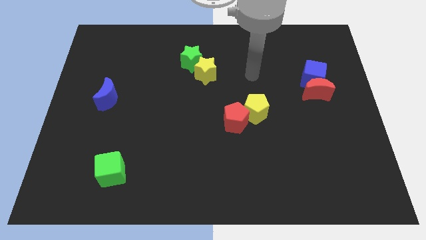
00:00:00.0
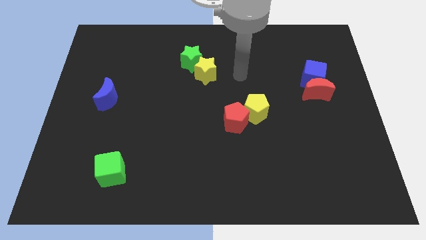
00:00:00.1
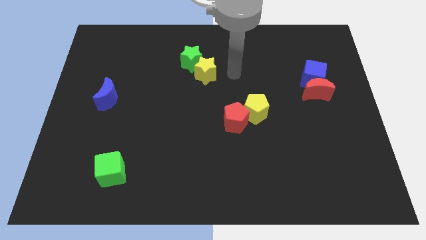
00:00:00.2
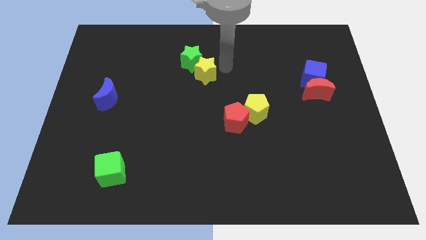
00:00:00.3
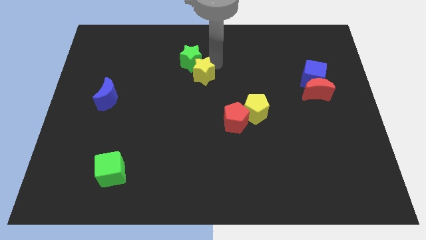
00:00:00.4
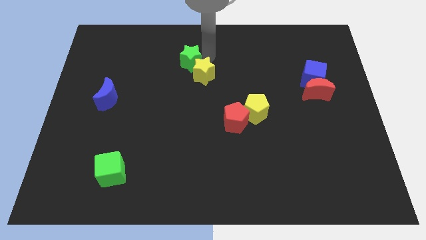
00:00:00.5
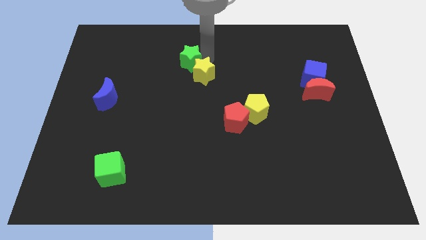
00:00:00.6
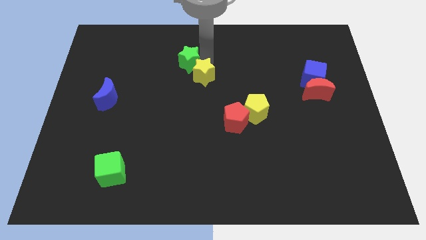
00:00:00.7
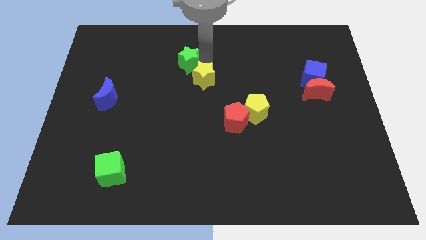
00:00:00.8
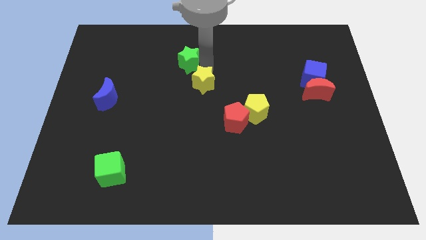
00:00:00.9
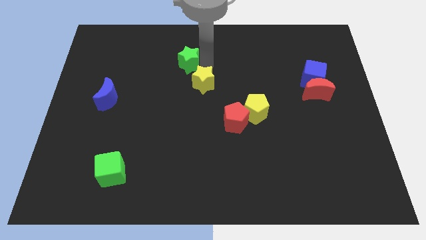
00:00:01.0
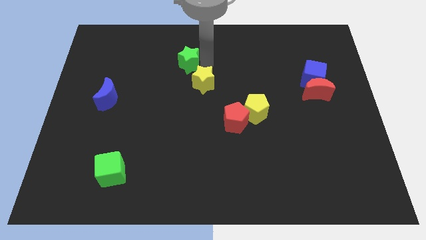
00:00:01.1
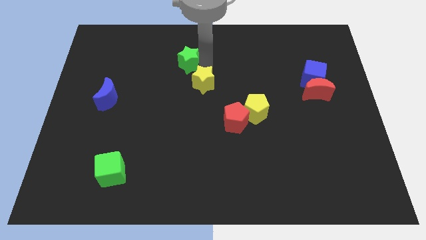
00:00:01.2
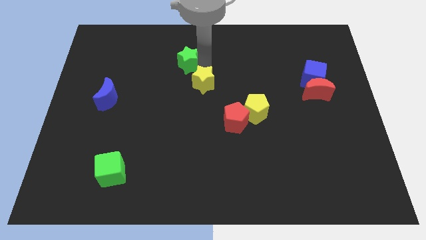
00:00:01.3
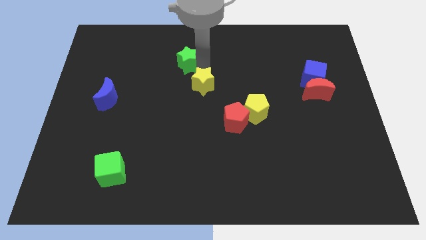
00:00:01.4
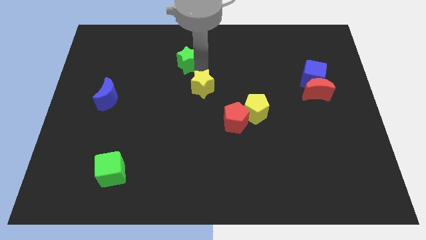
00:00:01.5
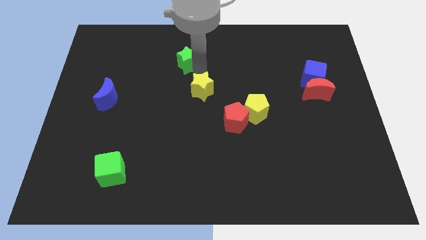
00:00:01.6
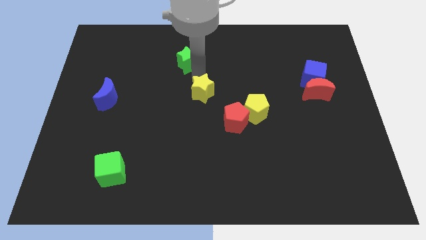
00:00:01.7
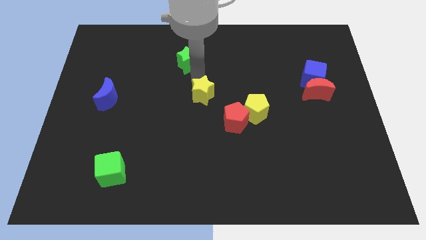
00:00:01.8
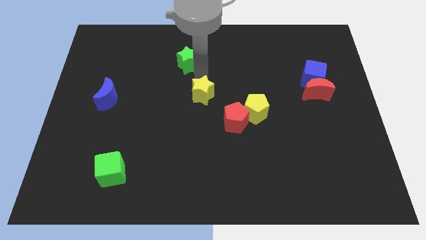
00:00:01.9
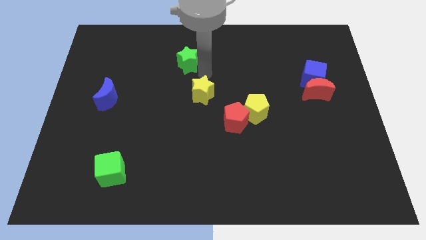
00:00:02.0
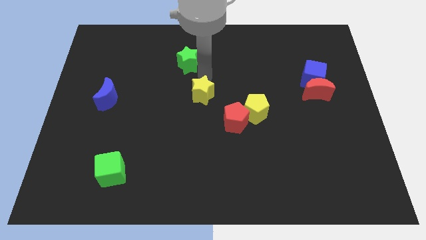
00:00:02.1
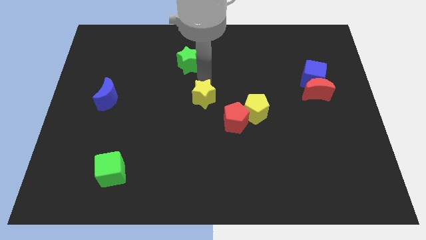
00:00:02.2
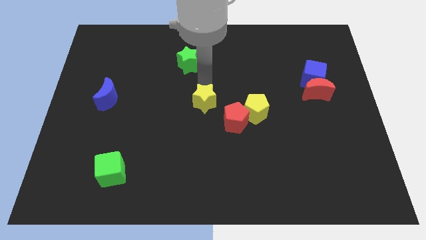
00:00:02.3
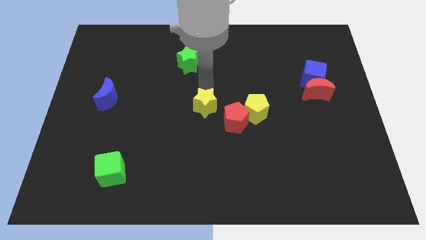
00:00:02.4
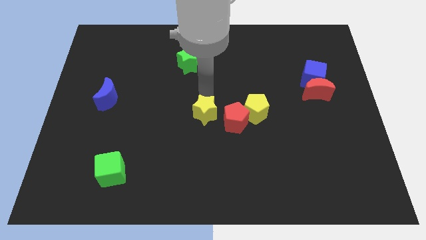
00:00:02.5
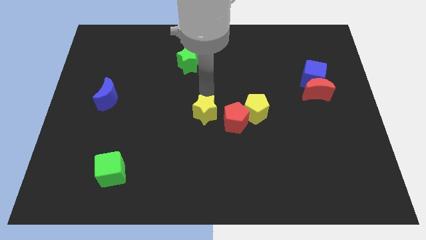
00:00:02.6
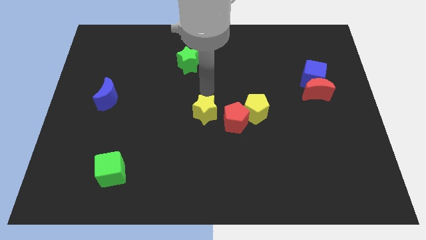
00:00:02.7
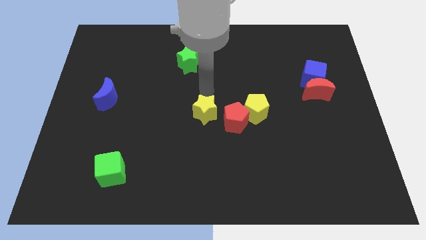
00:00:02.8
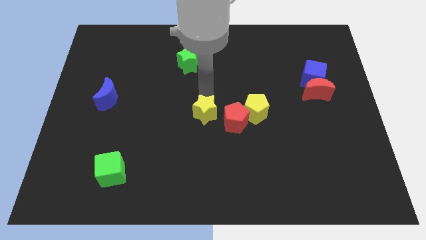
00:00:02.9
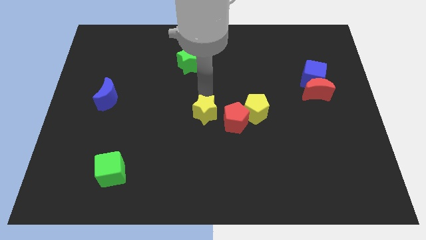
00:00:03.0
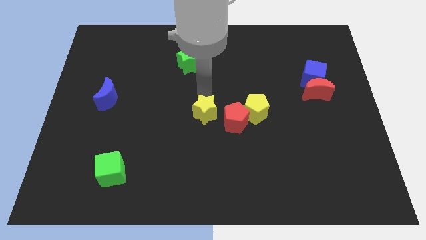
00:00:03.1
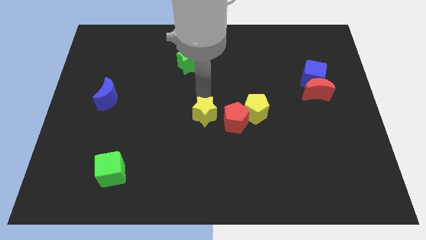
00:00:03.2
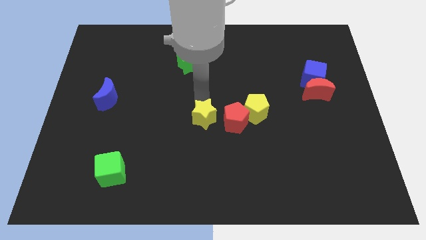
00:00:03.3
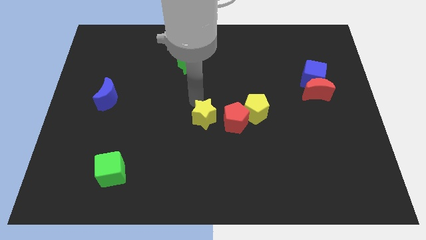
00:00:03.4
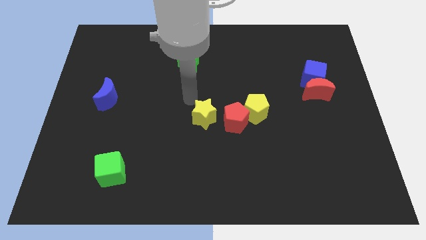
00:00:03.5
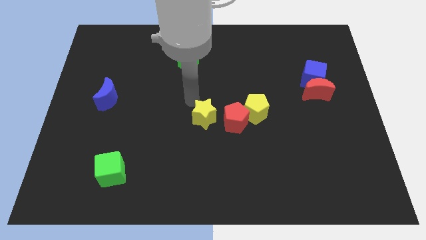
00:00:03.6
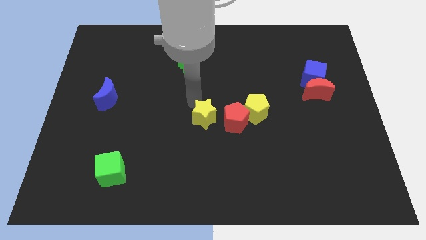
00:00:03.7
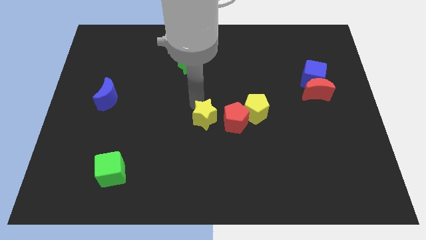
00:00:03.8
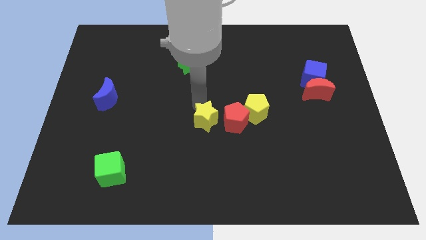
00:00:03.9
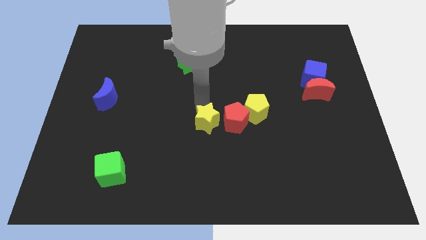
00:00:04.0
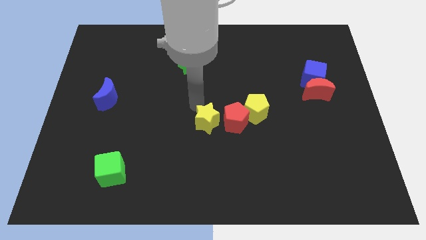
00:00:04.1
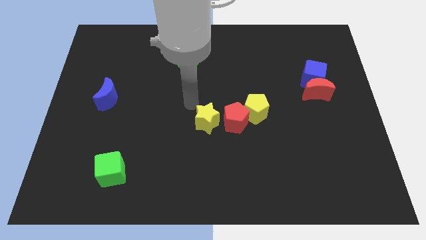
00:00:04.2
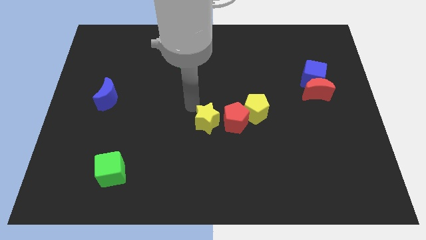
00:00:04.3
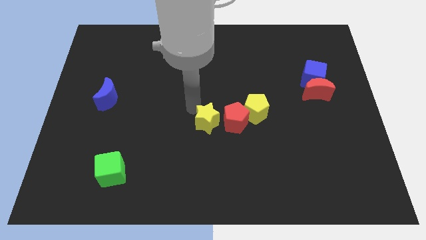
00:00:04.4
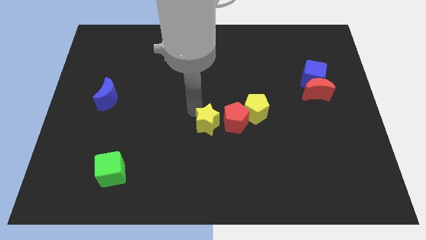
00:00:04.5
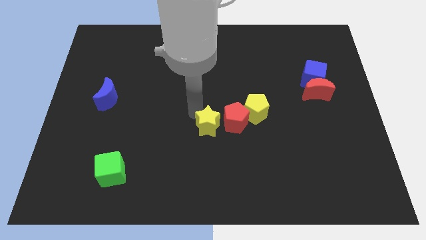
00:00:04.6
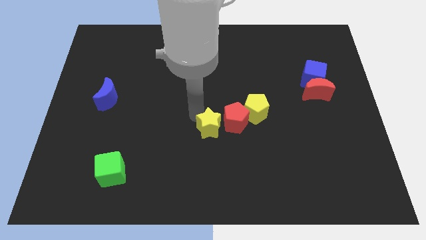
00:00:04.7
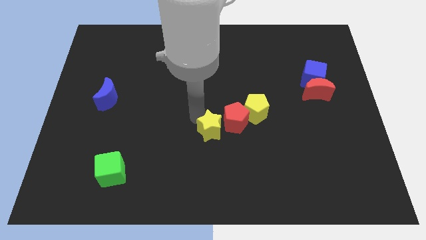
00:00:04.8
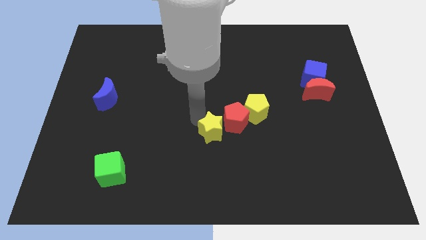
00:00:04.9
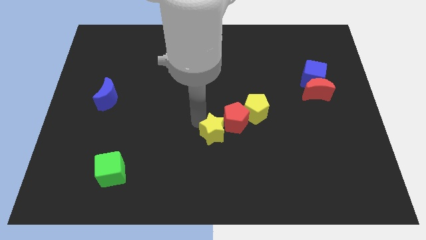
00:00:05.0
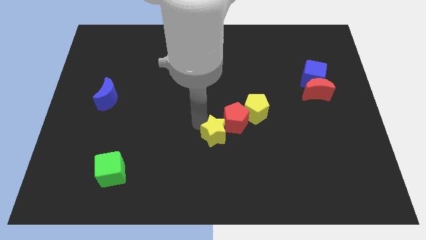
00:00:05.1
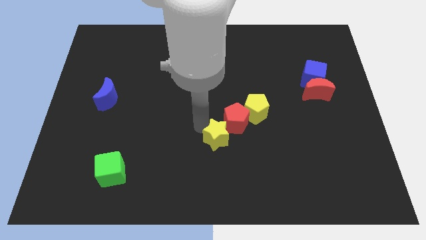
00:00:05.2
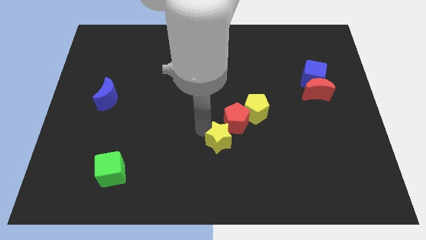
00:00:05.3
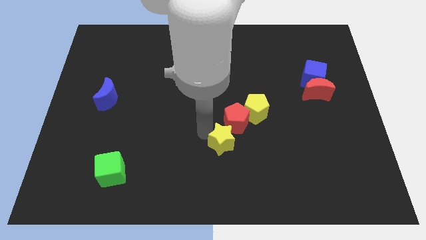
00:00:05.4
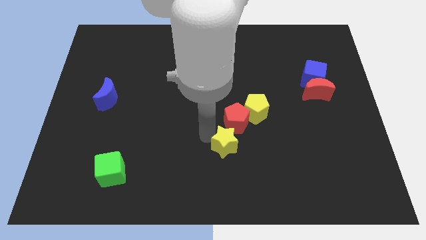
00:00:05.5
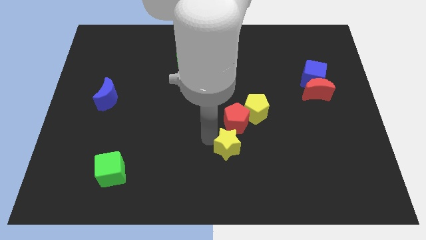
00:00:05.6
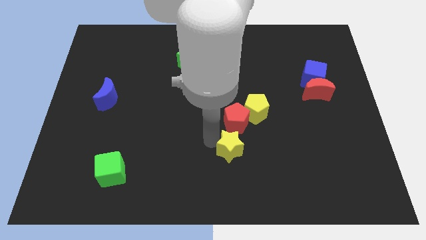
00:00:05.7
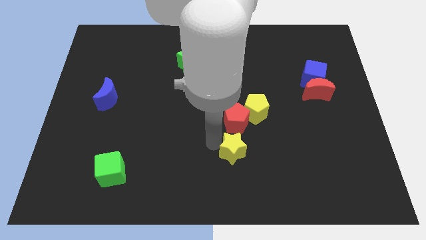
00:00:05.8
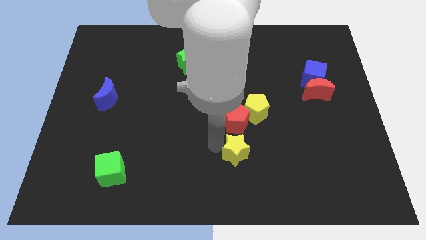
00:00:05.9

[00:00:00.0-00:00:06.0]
move the yellow star below the yellow pentagon
